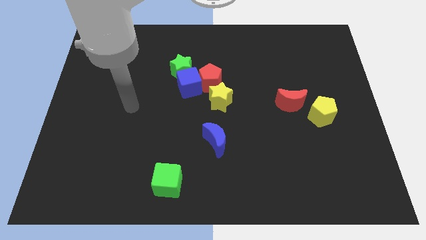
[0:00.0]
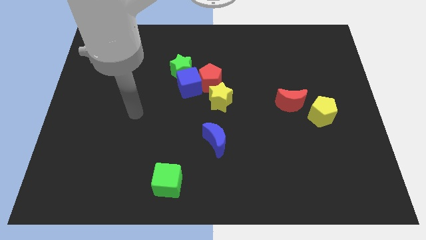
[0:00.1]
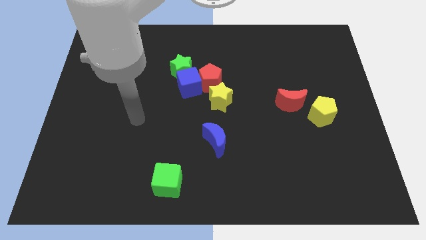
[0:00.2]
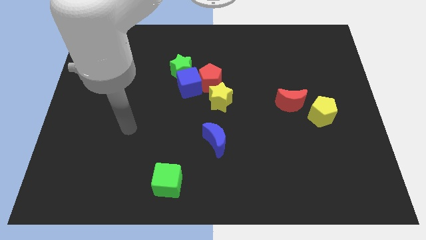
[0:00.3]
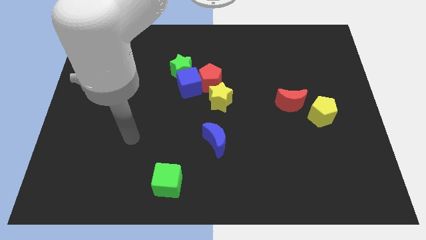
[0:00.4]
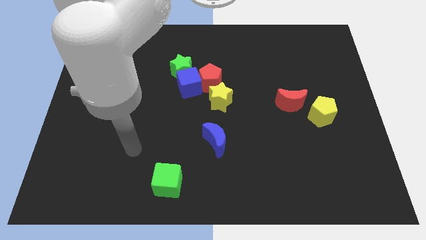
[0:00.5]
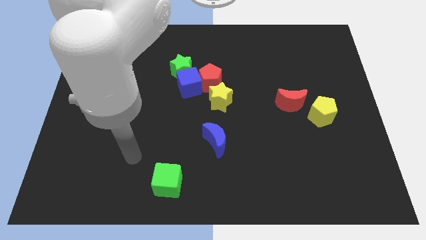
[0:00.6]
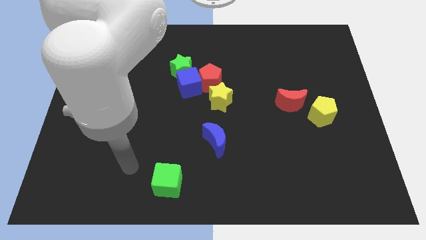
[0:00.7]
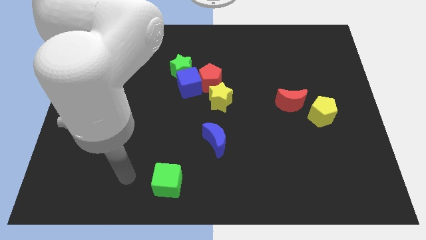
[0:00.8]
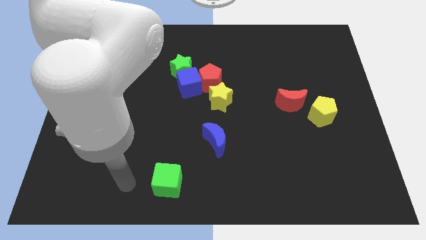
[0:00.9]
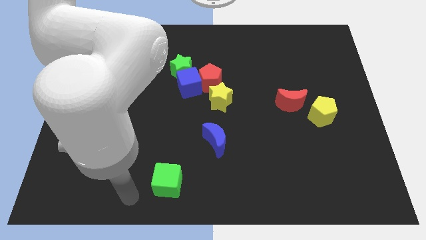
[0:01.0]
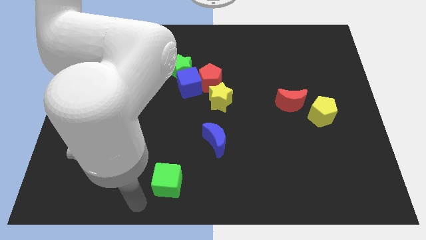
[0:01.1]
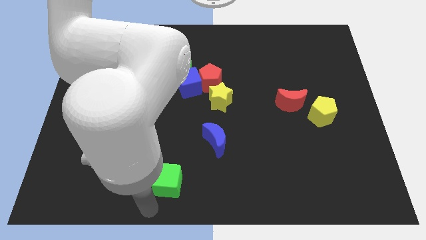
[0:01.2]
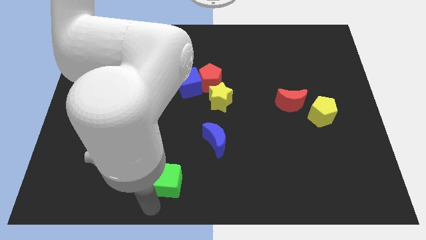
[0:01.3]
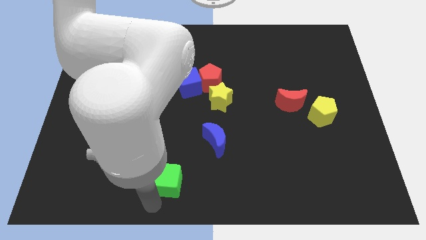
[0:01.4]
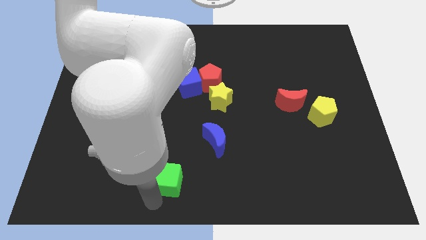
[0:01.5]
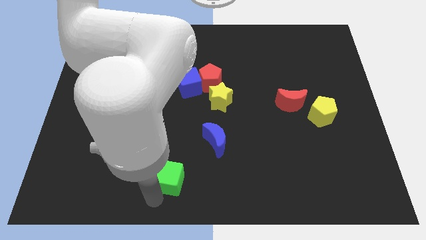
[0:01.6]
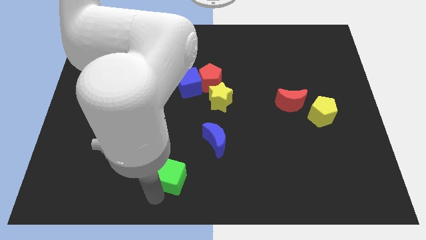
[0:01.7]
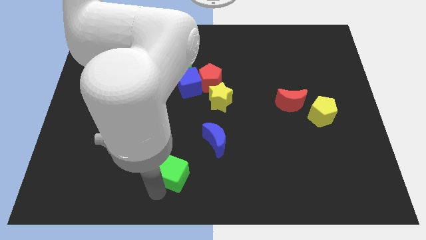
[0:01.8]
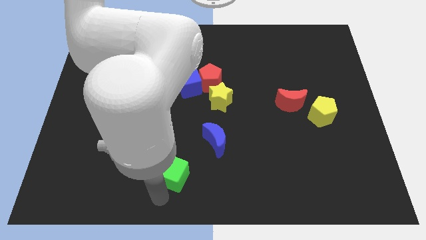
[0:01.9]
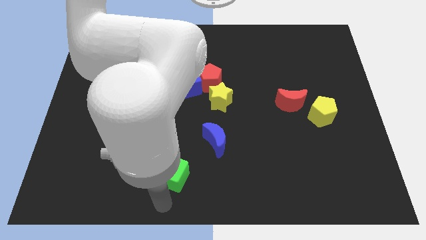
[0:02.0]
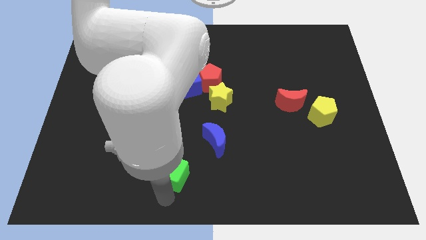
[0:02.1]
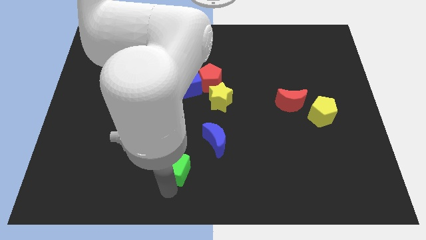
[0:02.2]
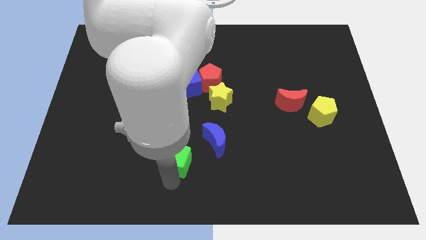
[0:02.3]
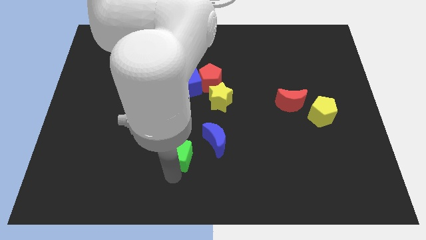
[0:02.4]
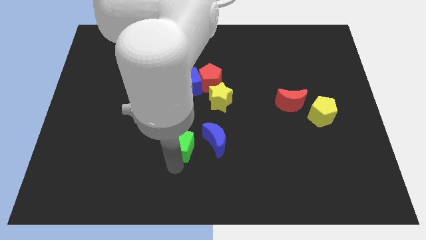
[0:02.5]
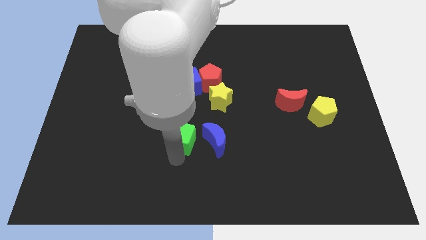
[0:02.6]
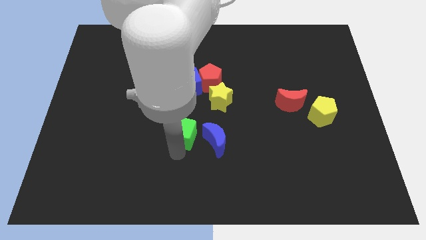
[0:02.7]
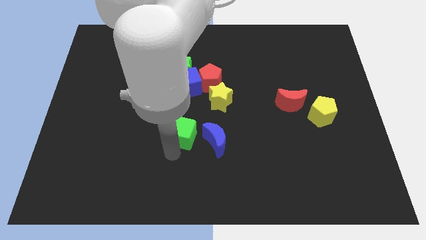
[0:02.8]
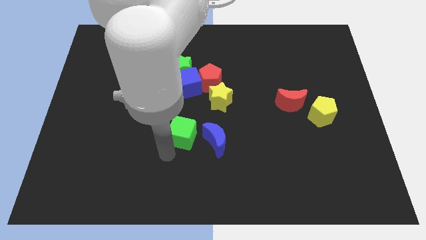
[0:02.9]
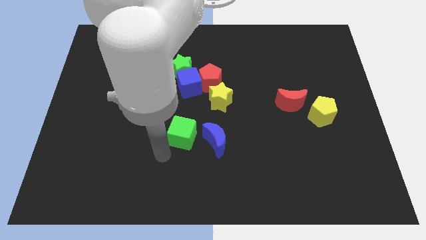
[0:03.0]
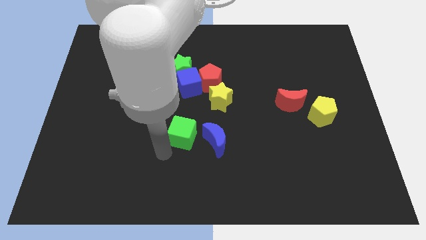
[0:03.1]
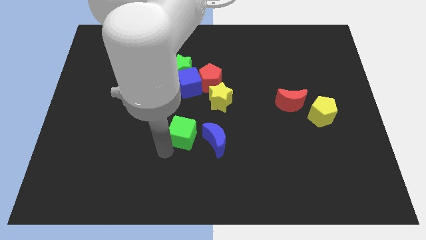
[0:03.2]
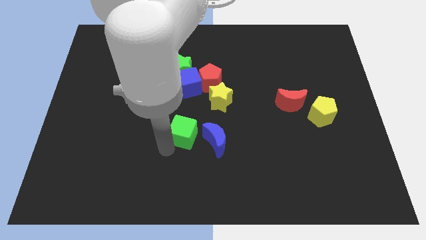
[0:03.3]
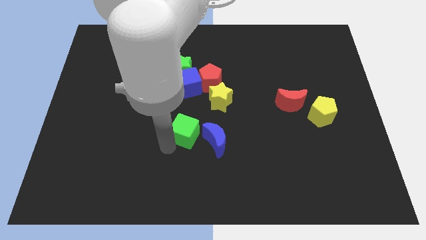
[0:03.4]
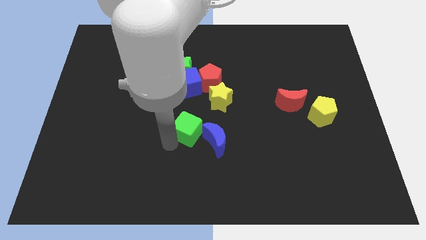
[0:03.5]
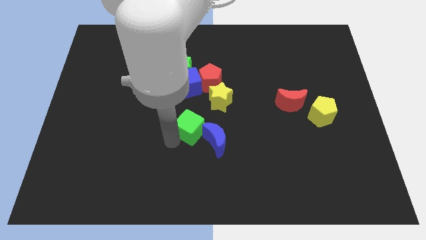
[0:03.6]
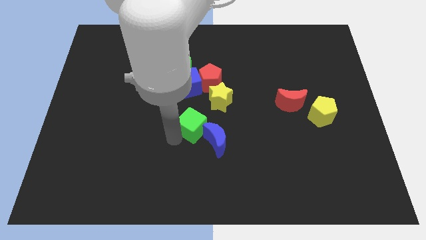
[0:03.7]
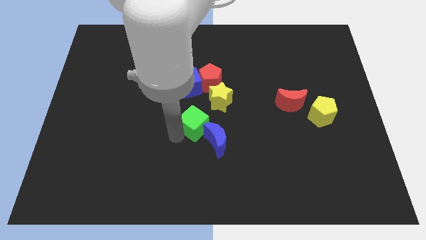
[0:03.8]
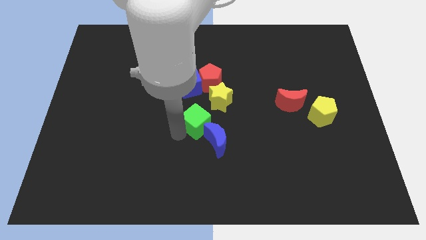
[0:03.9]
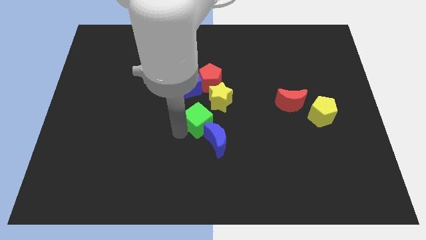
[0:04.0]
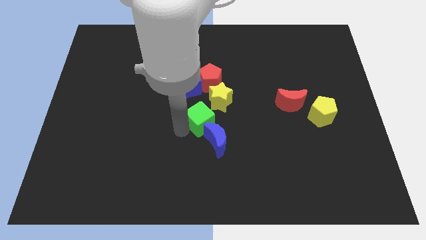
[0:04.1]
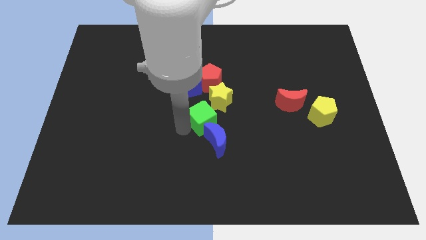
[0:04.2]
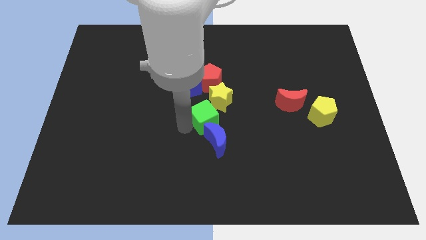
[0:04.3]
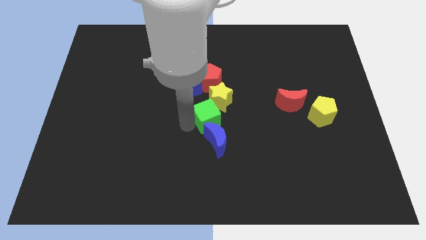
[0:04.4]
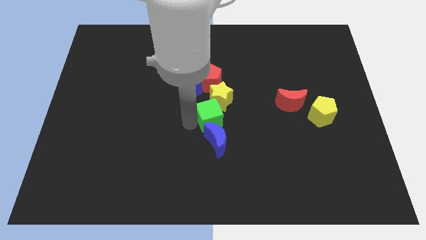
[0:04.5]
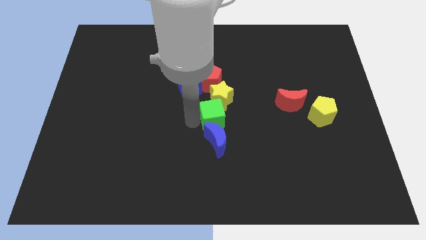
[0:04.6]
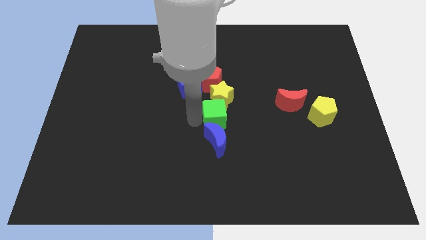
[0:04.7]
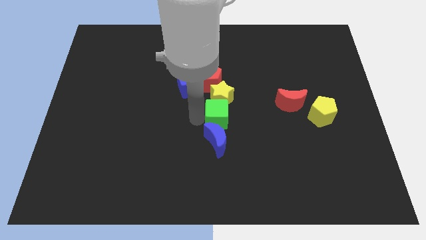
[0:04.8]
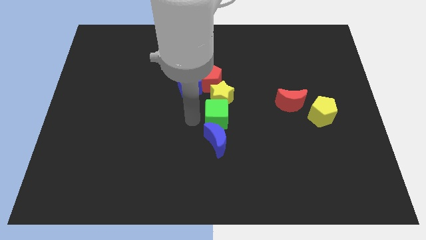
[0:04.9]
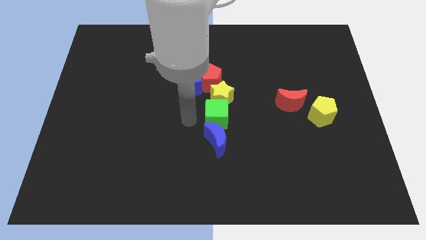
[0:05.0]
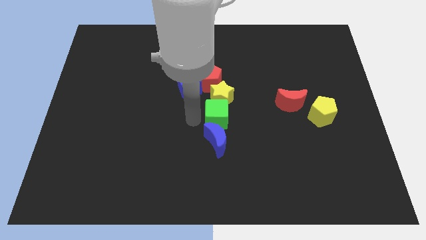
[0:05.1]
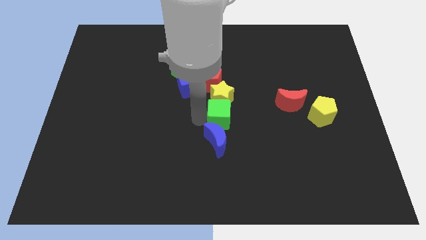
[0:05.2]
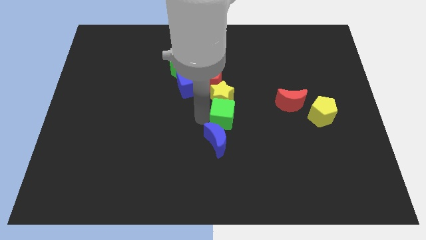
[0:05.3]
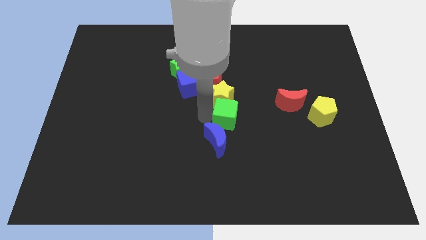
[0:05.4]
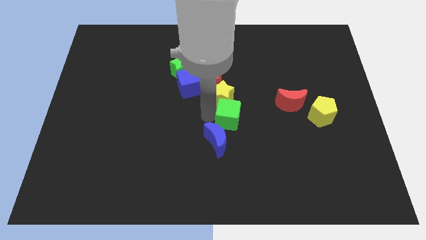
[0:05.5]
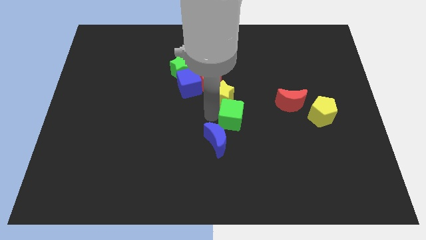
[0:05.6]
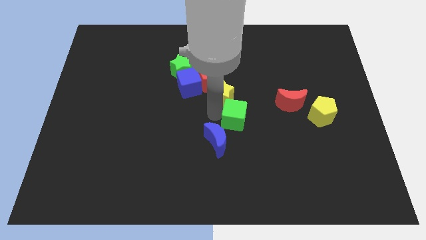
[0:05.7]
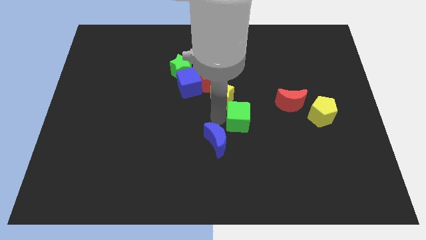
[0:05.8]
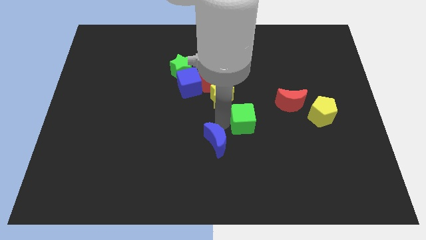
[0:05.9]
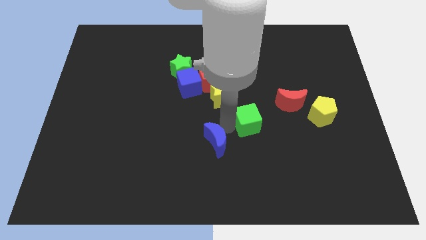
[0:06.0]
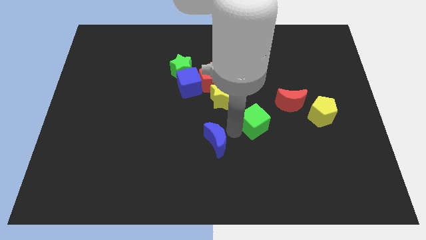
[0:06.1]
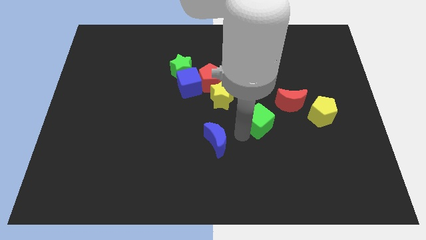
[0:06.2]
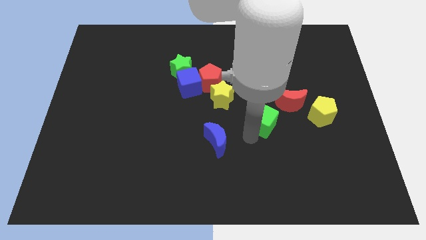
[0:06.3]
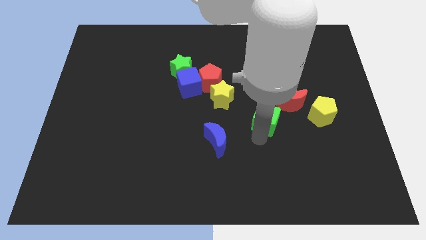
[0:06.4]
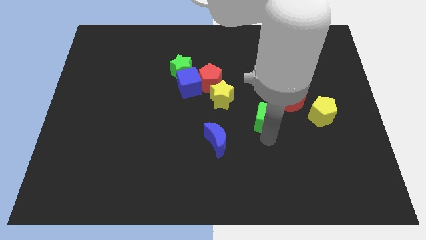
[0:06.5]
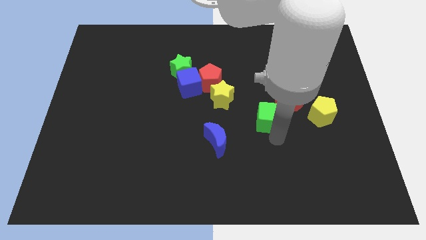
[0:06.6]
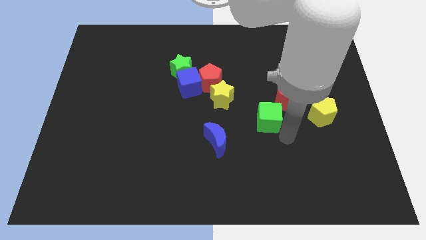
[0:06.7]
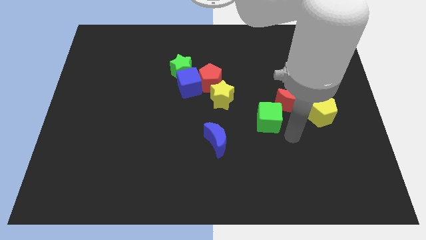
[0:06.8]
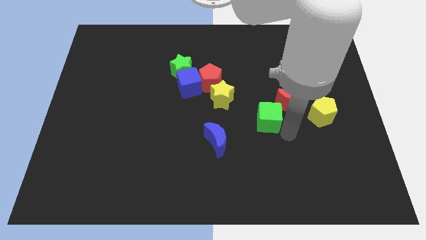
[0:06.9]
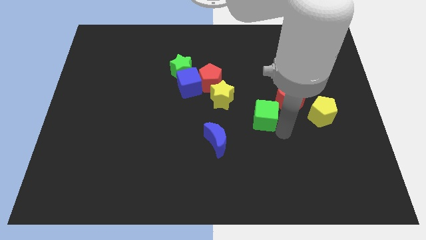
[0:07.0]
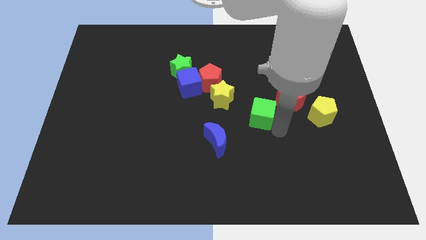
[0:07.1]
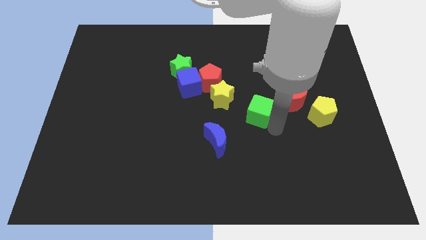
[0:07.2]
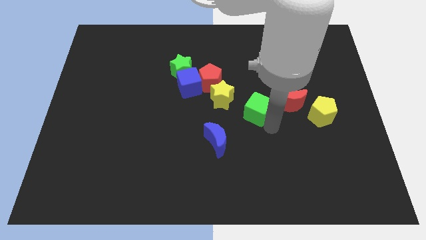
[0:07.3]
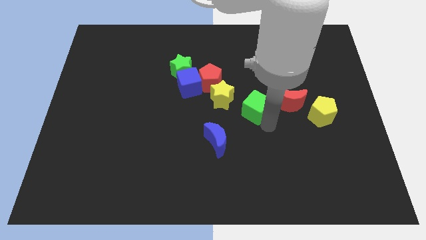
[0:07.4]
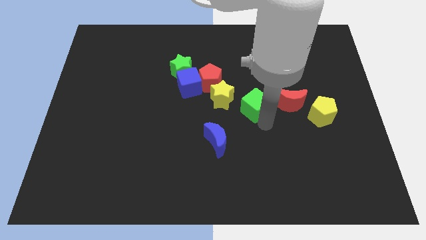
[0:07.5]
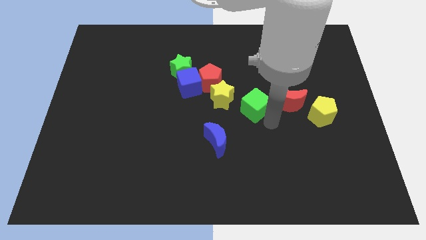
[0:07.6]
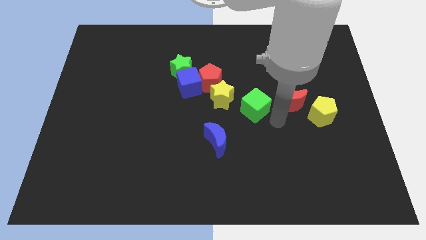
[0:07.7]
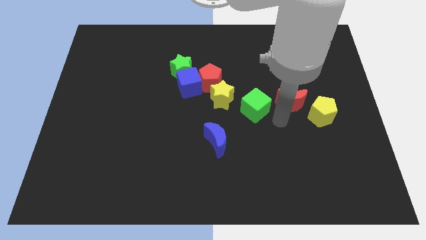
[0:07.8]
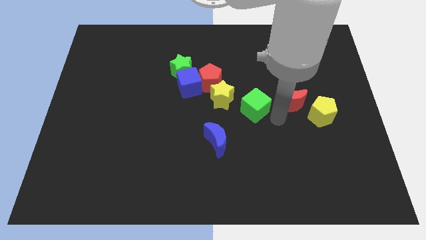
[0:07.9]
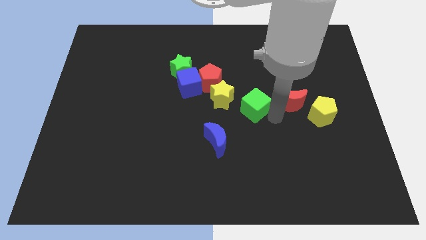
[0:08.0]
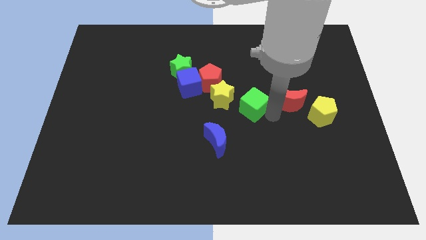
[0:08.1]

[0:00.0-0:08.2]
put the green cube to the bottom right of the red pentagon

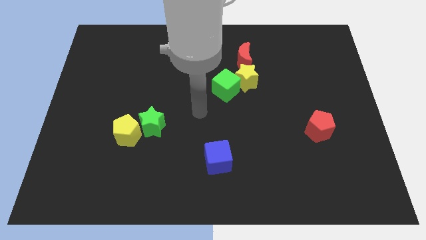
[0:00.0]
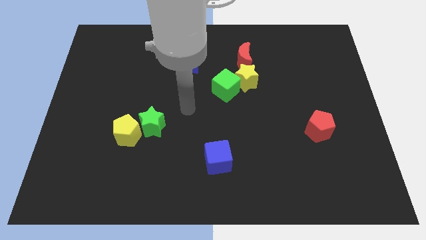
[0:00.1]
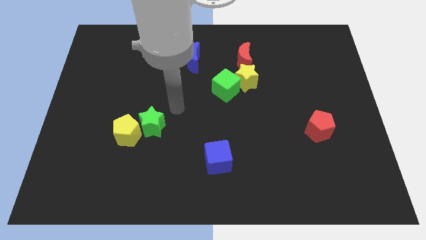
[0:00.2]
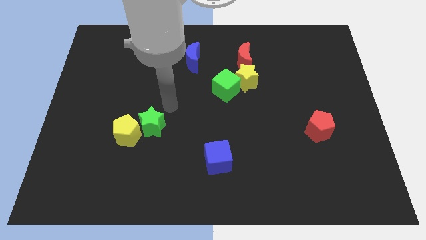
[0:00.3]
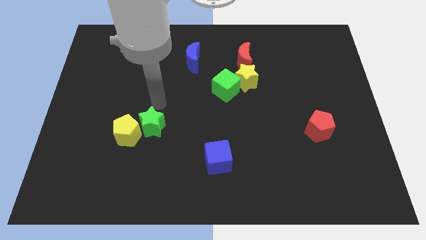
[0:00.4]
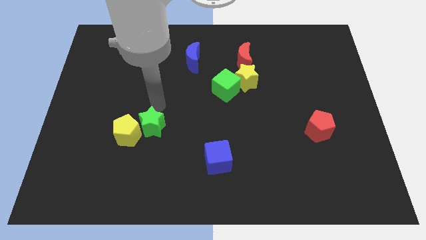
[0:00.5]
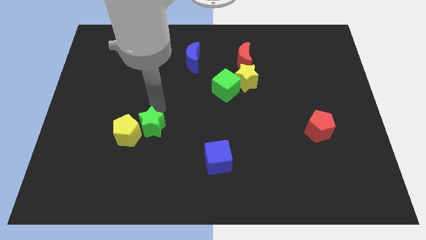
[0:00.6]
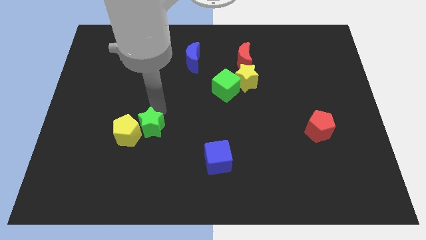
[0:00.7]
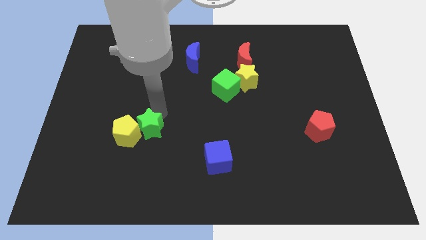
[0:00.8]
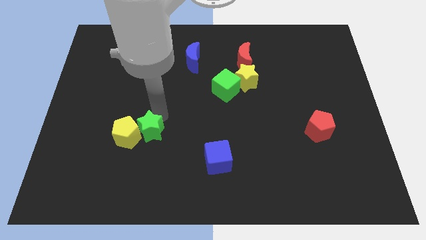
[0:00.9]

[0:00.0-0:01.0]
push the green star diagonally down and to the right of the yellow pentagon
